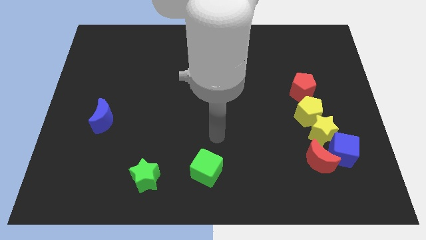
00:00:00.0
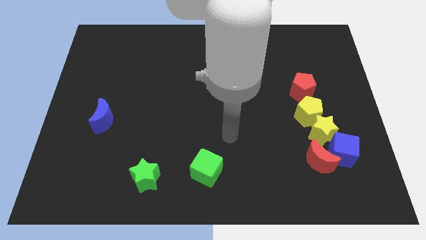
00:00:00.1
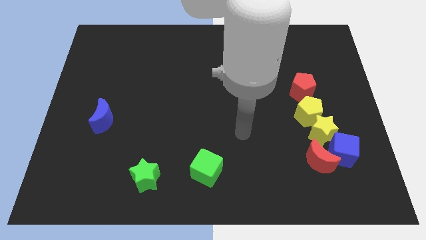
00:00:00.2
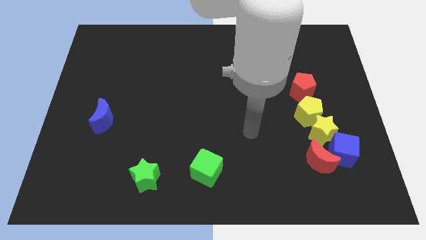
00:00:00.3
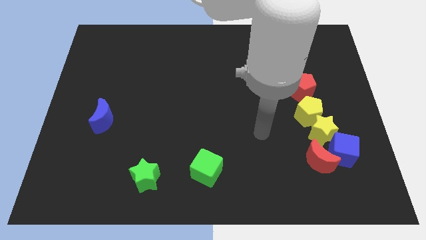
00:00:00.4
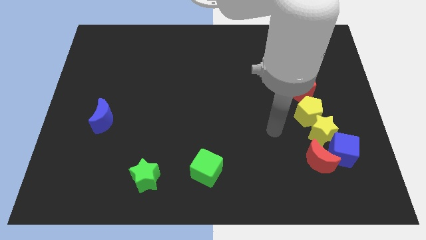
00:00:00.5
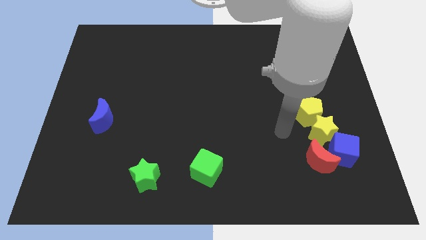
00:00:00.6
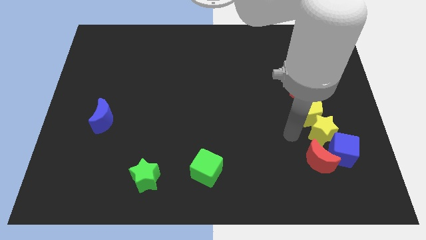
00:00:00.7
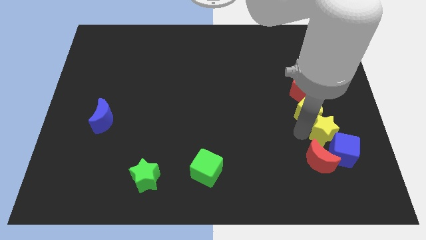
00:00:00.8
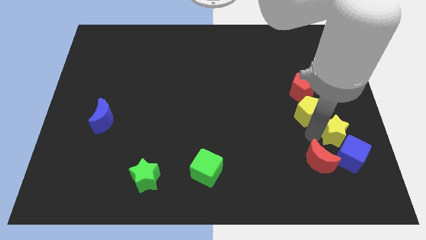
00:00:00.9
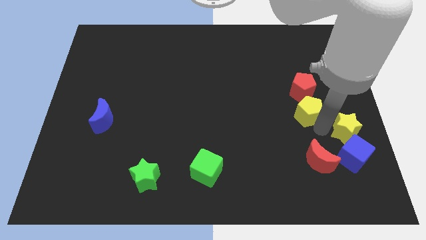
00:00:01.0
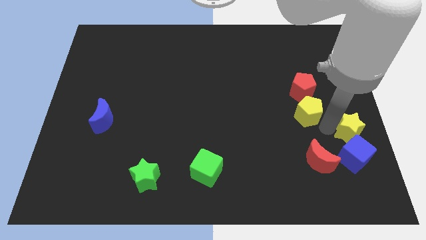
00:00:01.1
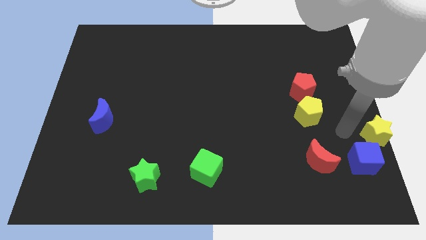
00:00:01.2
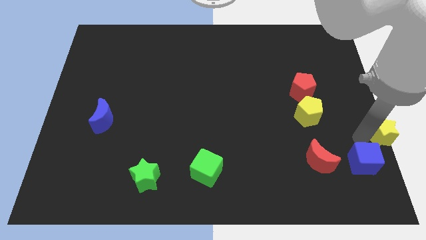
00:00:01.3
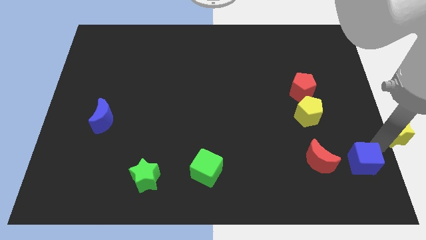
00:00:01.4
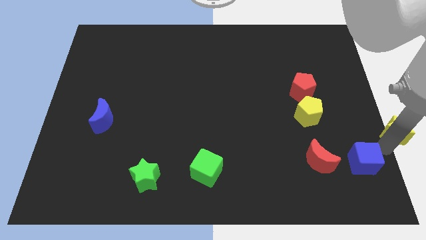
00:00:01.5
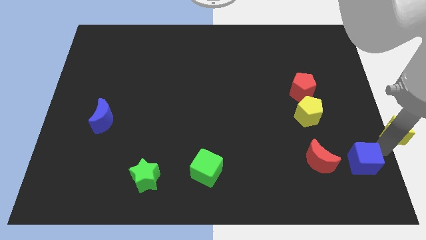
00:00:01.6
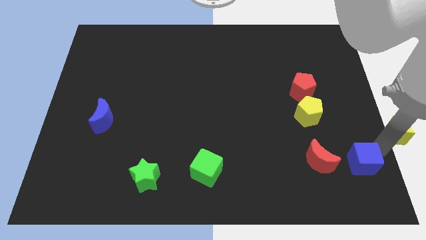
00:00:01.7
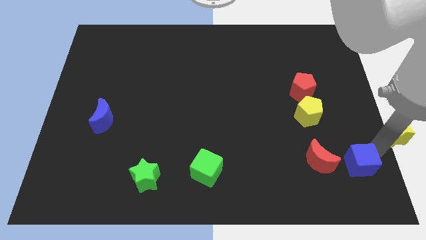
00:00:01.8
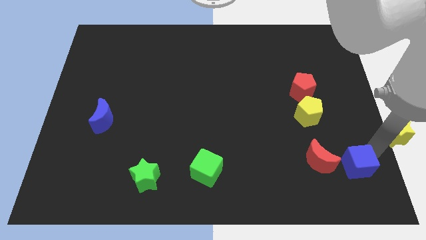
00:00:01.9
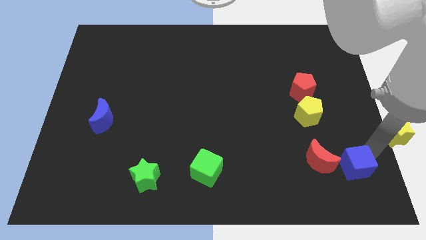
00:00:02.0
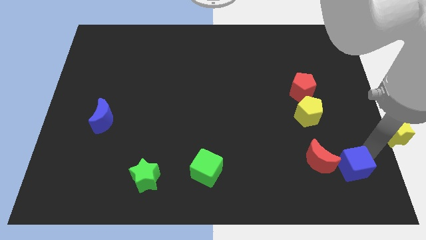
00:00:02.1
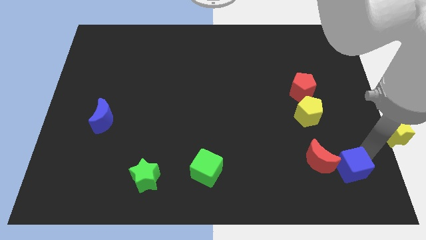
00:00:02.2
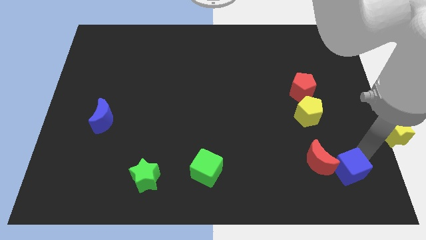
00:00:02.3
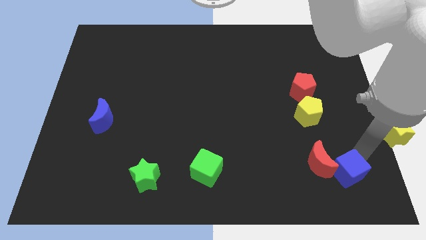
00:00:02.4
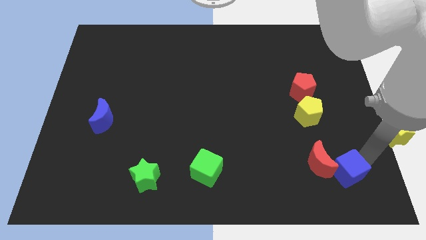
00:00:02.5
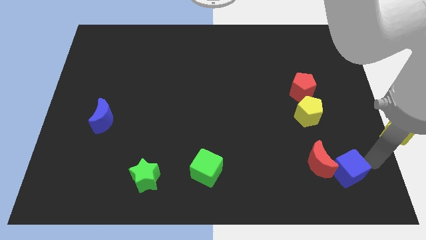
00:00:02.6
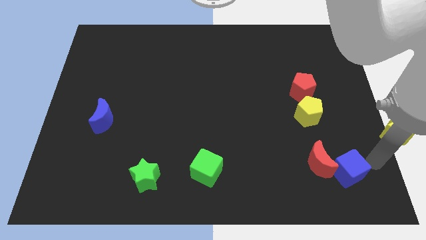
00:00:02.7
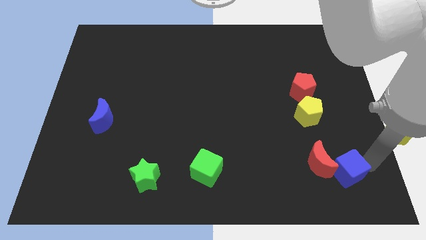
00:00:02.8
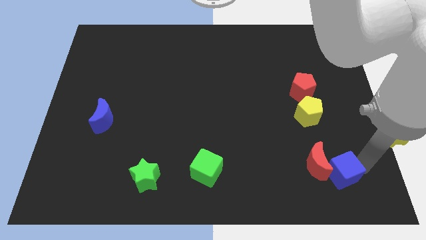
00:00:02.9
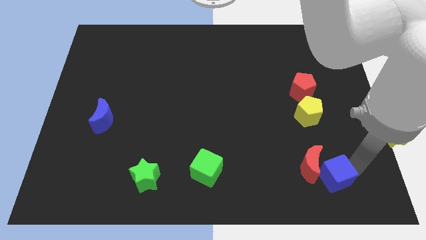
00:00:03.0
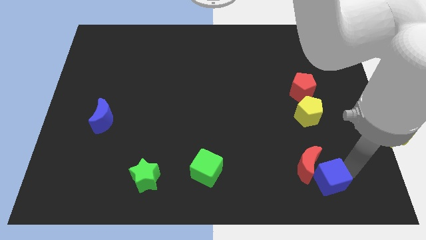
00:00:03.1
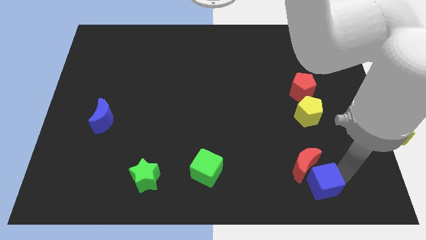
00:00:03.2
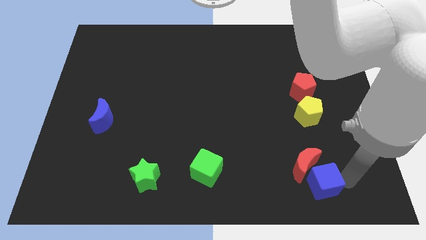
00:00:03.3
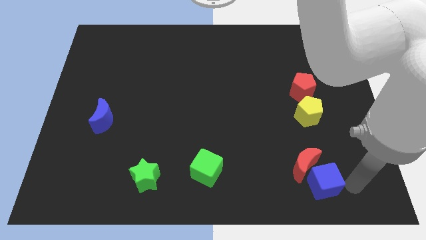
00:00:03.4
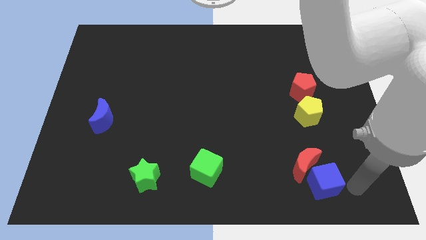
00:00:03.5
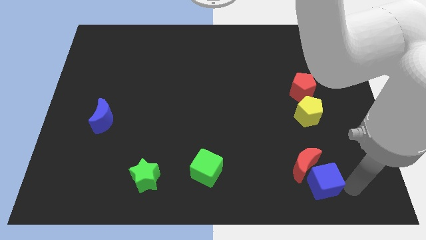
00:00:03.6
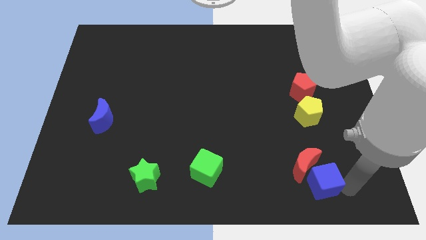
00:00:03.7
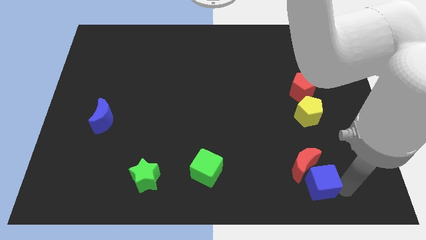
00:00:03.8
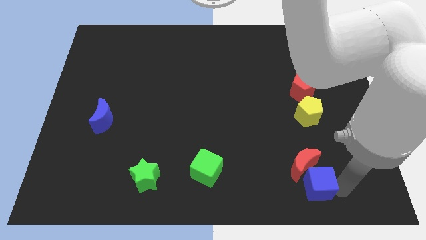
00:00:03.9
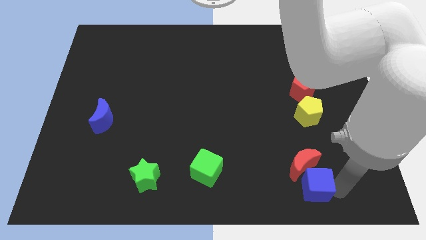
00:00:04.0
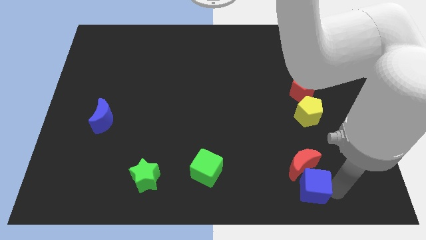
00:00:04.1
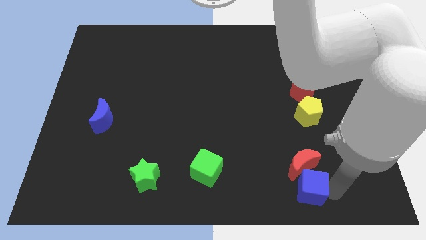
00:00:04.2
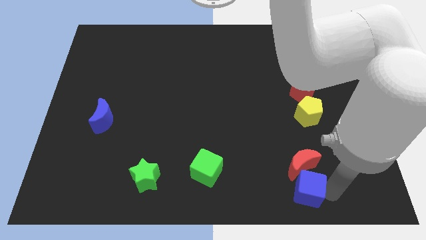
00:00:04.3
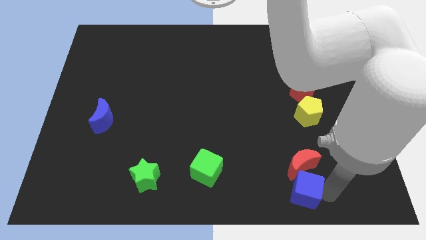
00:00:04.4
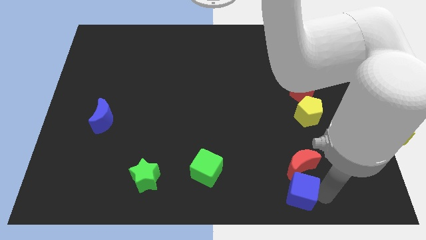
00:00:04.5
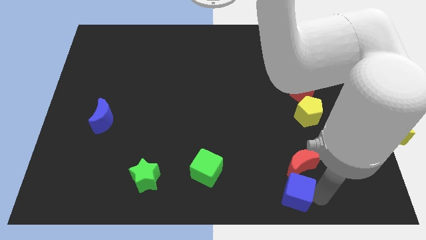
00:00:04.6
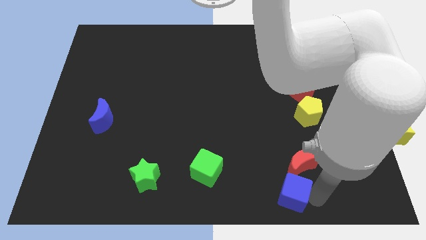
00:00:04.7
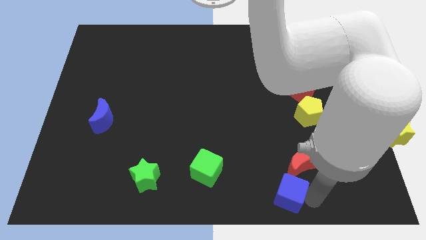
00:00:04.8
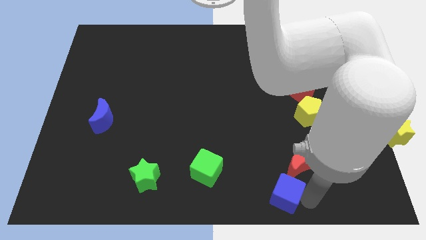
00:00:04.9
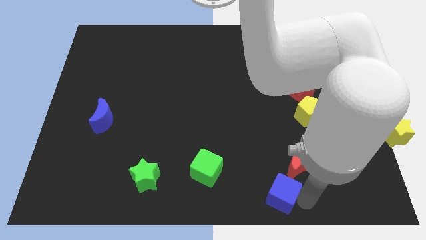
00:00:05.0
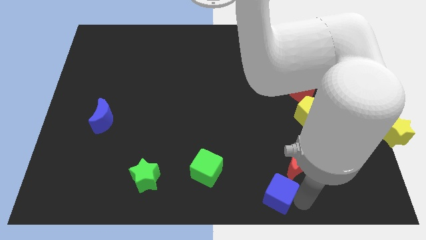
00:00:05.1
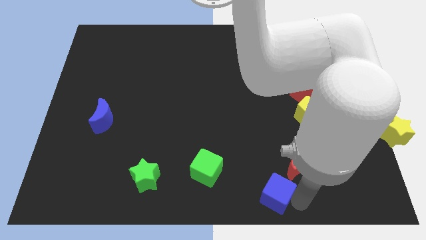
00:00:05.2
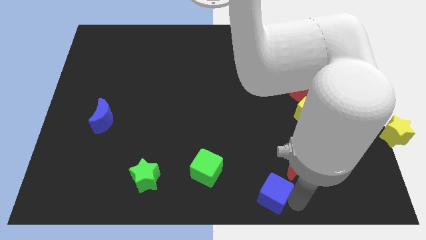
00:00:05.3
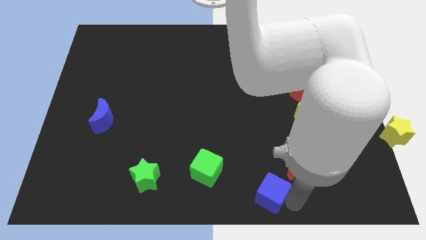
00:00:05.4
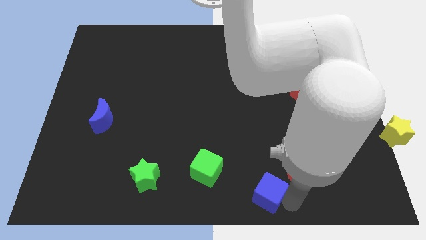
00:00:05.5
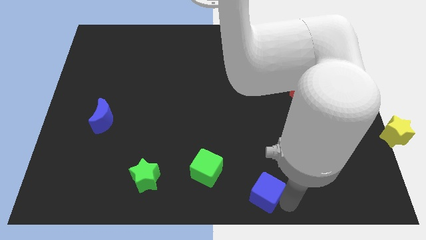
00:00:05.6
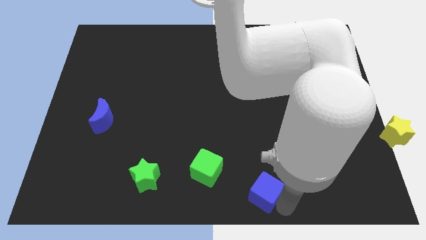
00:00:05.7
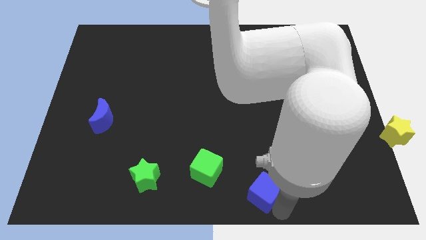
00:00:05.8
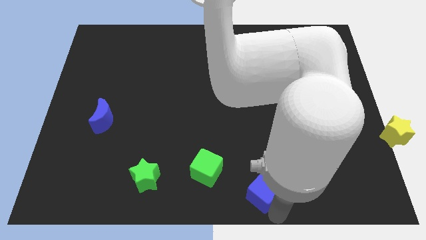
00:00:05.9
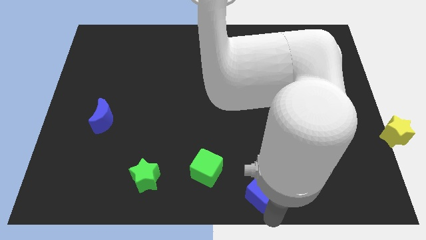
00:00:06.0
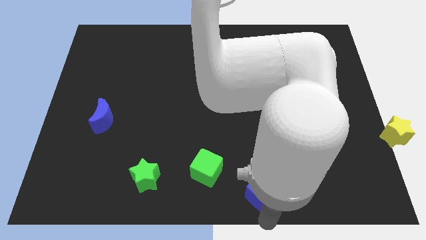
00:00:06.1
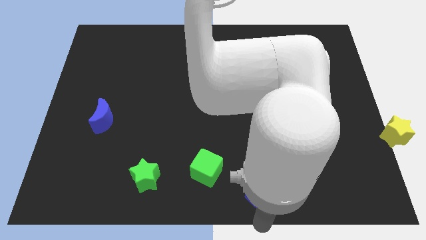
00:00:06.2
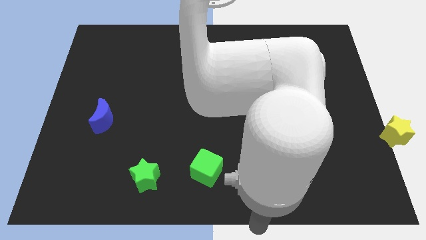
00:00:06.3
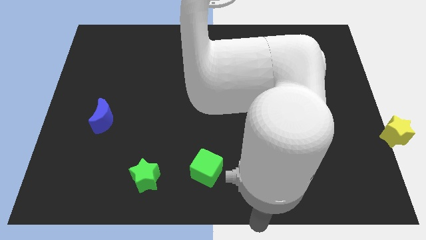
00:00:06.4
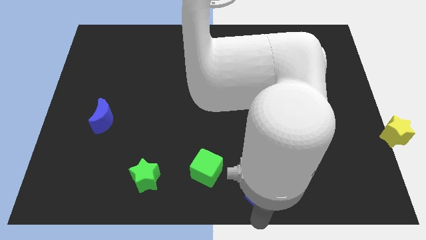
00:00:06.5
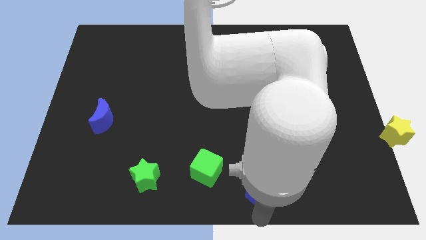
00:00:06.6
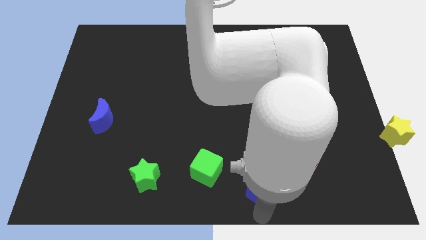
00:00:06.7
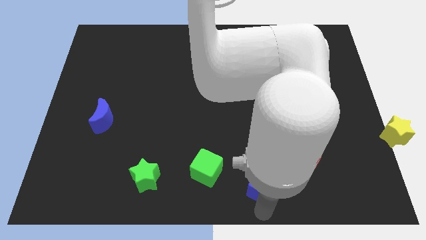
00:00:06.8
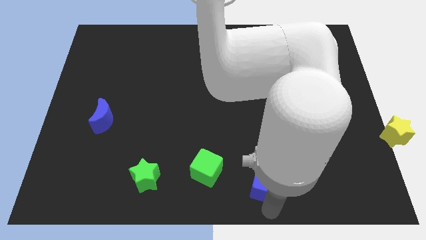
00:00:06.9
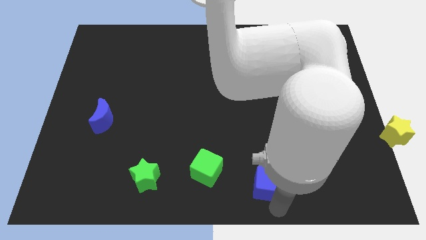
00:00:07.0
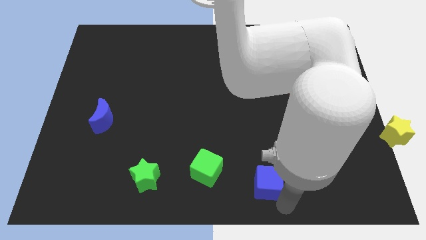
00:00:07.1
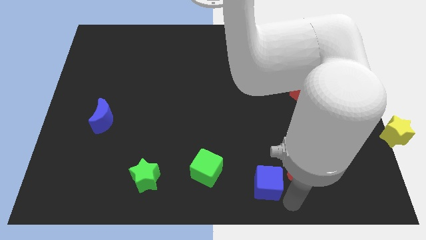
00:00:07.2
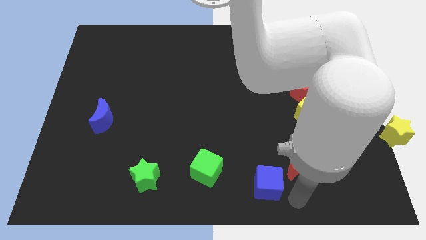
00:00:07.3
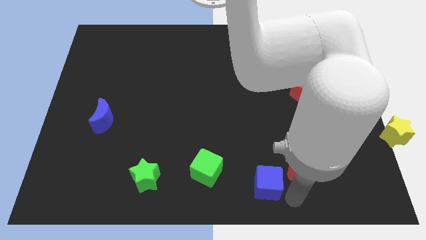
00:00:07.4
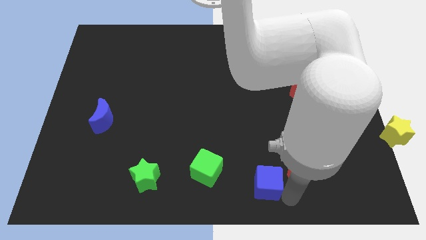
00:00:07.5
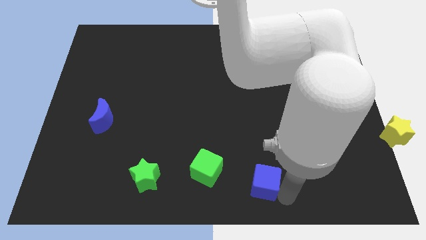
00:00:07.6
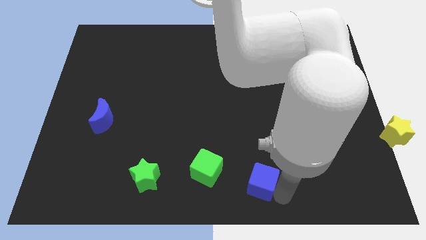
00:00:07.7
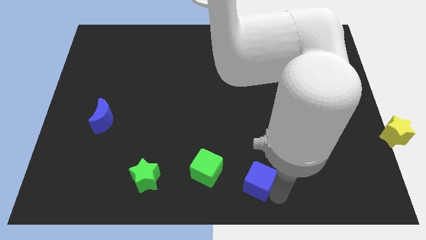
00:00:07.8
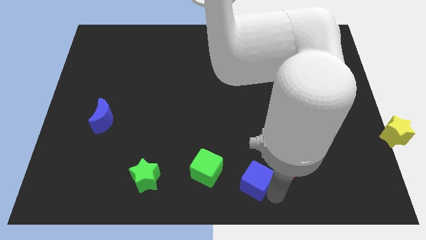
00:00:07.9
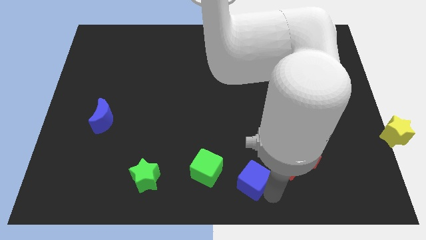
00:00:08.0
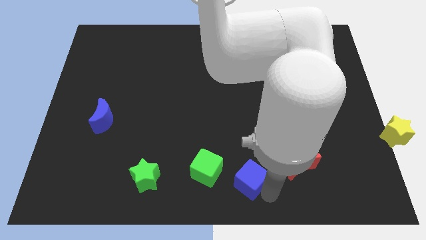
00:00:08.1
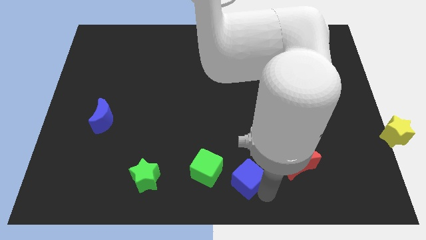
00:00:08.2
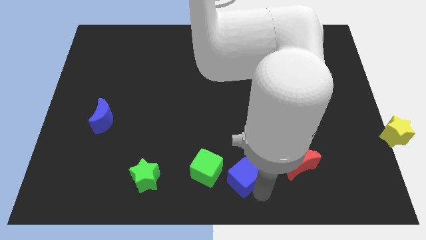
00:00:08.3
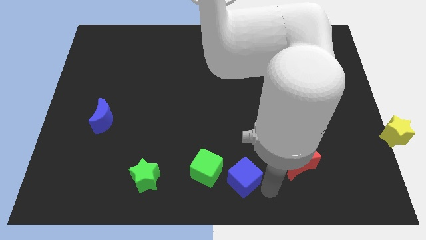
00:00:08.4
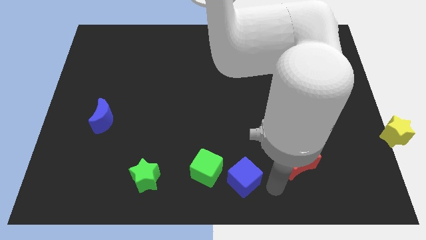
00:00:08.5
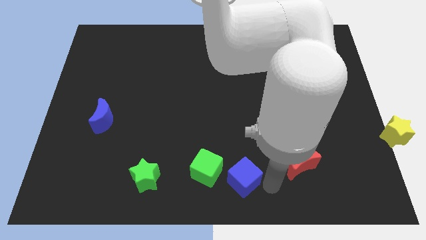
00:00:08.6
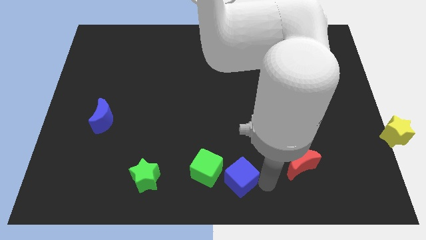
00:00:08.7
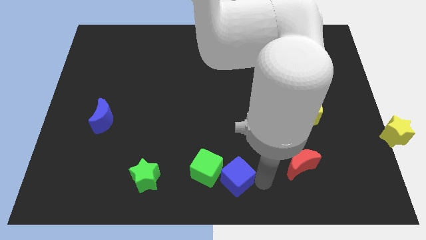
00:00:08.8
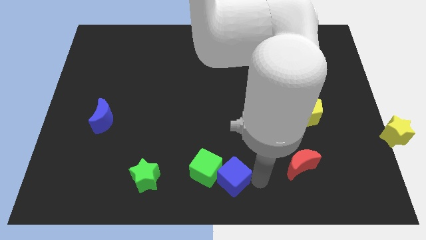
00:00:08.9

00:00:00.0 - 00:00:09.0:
slide the blue cube close to the green cube
